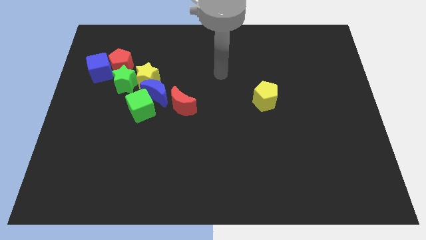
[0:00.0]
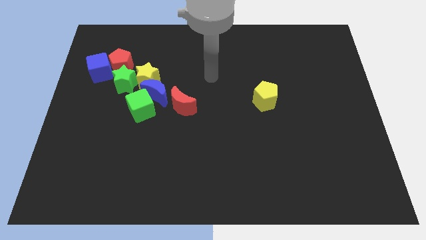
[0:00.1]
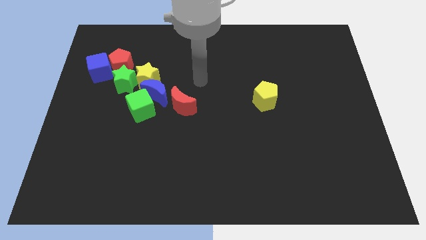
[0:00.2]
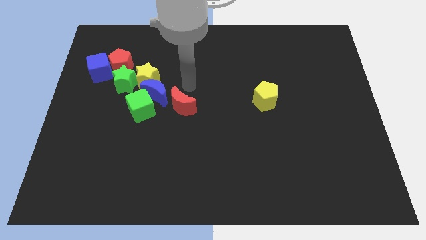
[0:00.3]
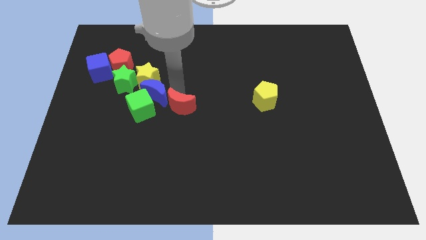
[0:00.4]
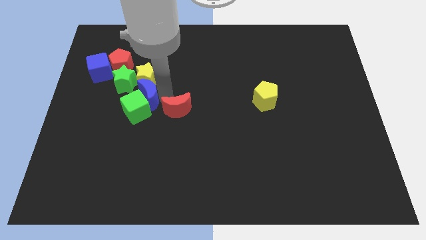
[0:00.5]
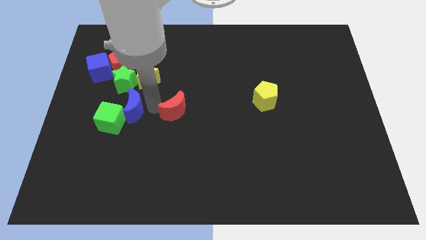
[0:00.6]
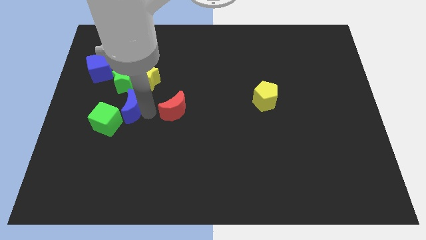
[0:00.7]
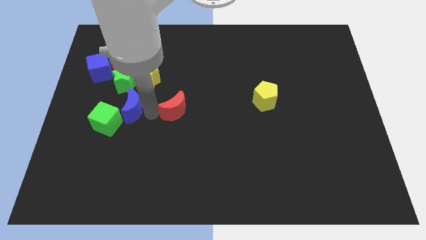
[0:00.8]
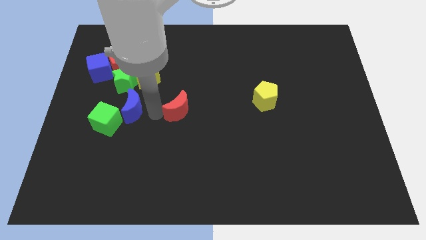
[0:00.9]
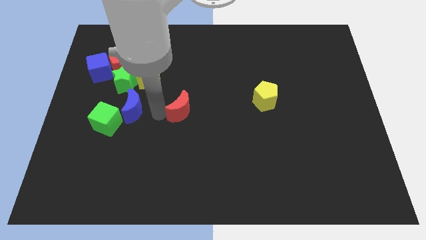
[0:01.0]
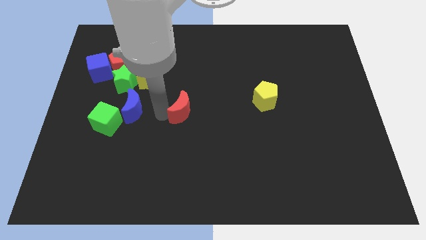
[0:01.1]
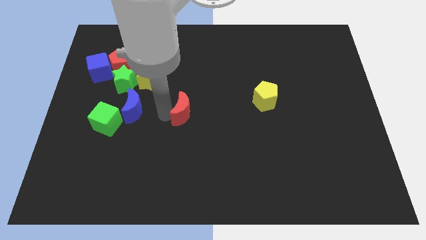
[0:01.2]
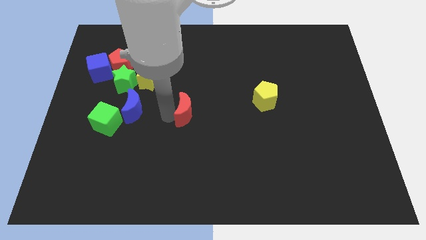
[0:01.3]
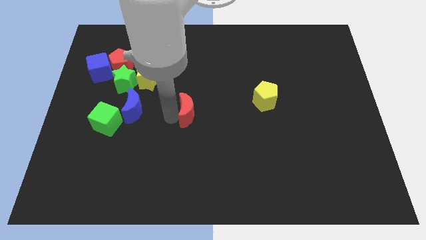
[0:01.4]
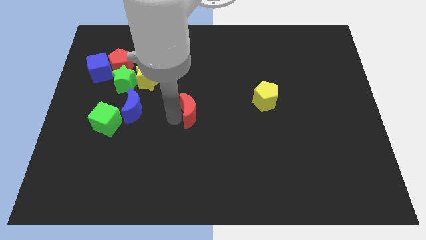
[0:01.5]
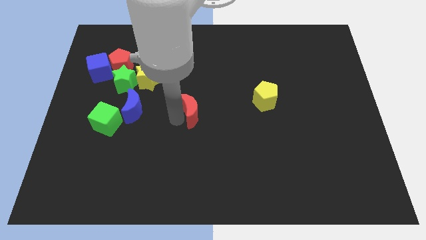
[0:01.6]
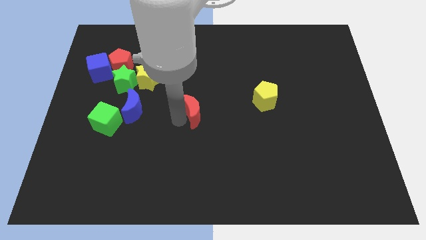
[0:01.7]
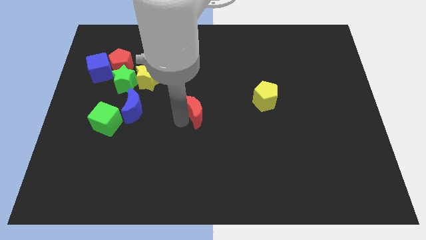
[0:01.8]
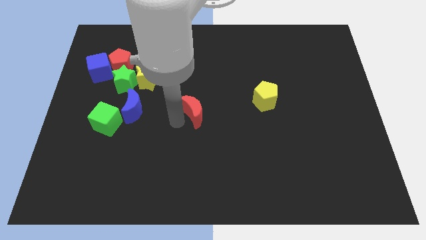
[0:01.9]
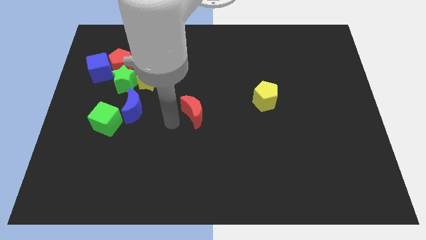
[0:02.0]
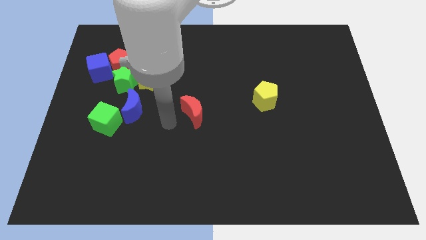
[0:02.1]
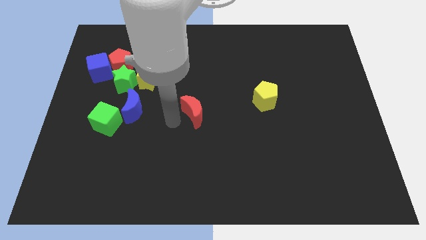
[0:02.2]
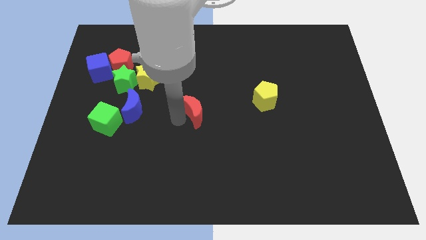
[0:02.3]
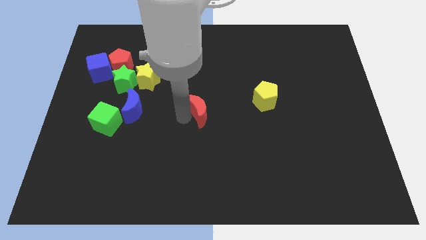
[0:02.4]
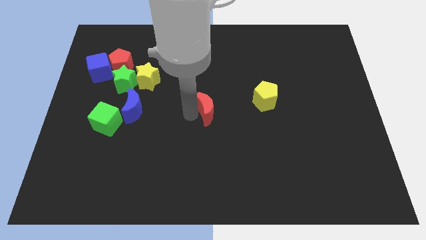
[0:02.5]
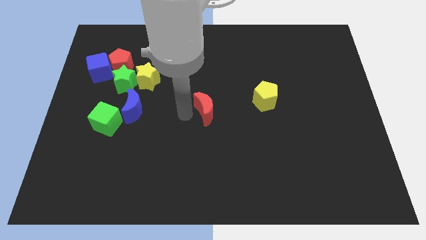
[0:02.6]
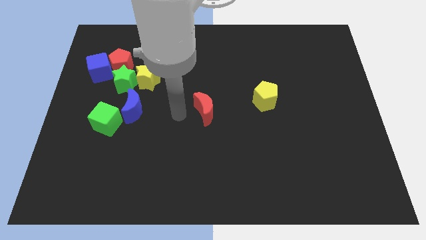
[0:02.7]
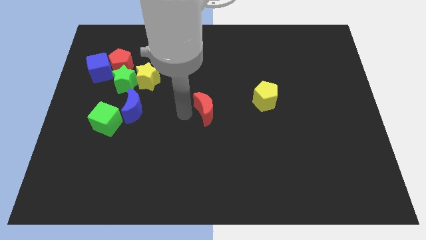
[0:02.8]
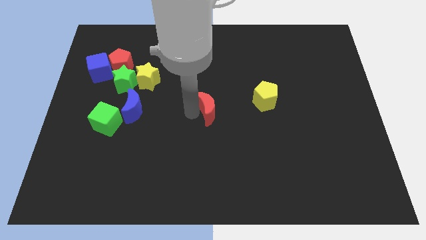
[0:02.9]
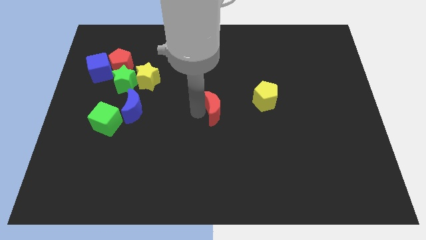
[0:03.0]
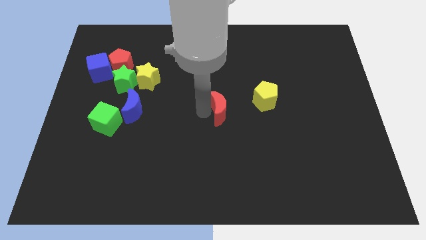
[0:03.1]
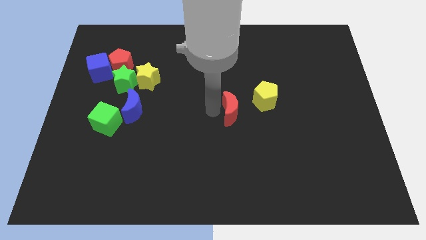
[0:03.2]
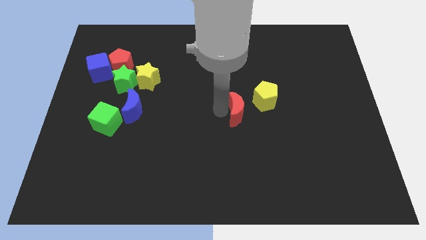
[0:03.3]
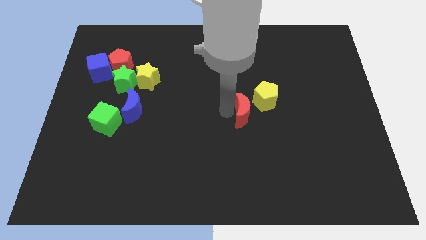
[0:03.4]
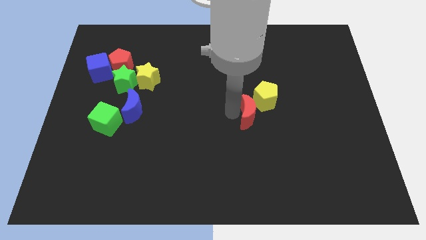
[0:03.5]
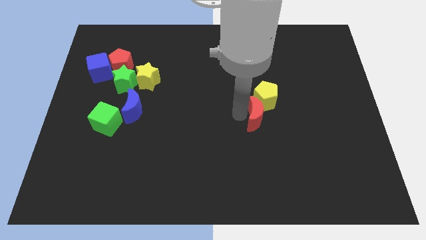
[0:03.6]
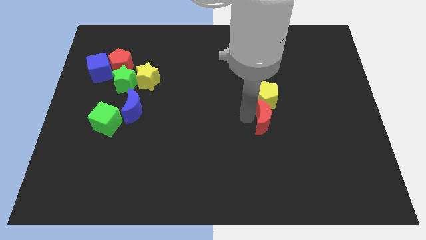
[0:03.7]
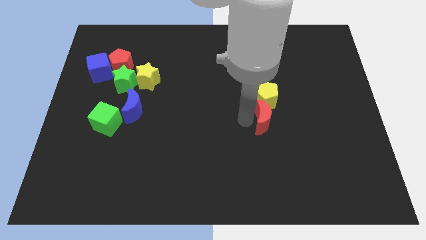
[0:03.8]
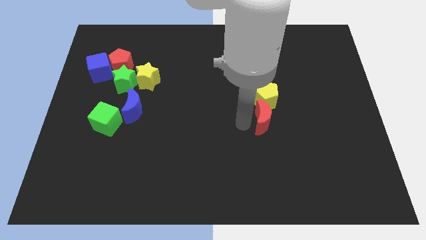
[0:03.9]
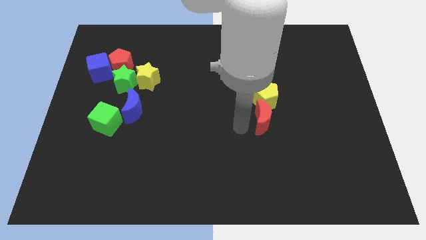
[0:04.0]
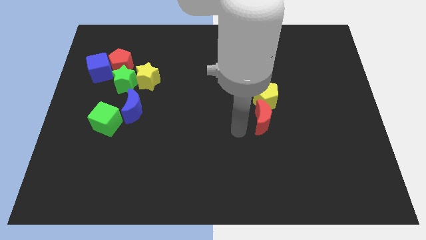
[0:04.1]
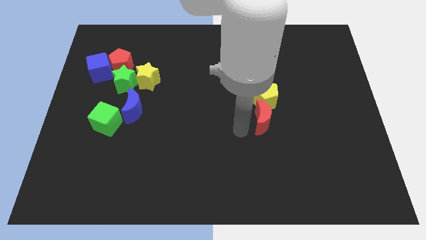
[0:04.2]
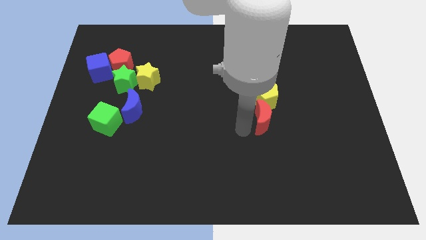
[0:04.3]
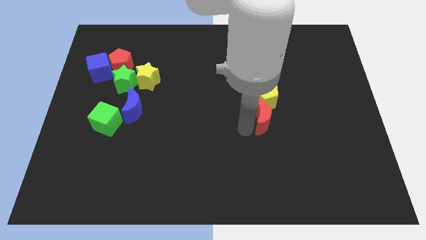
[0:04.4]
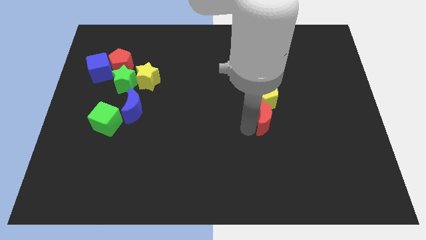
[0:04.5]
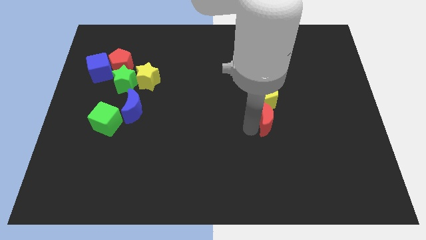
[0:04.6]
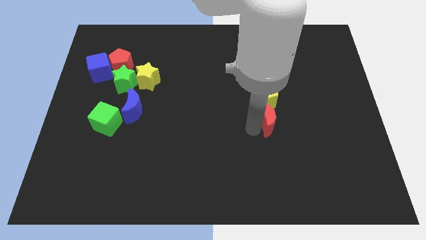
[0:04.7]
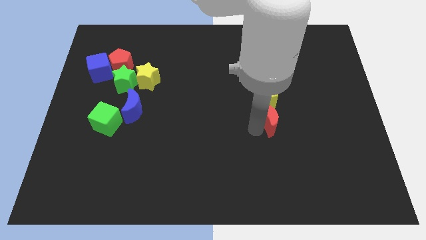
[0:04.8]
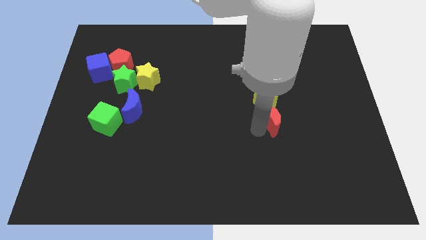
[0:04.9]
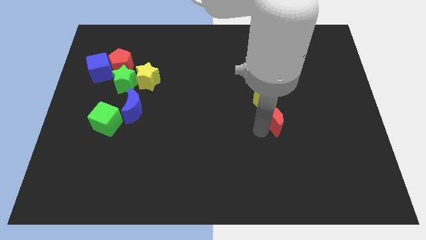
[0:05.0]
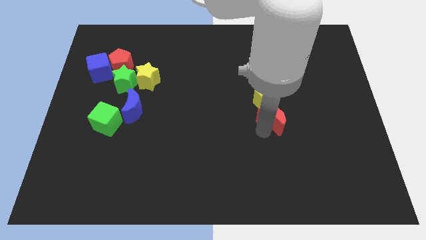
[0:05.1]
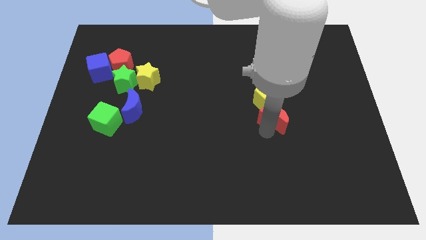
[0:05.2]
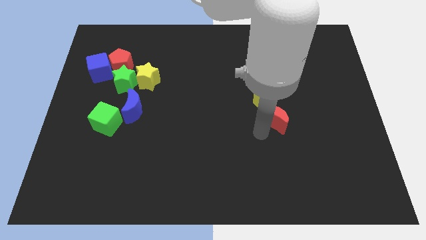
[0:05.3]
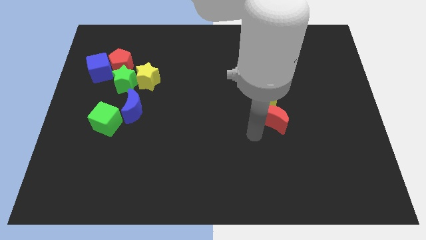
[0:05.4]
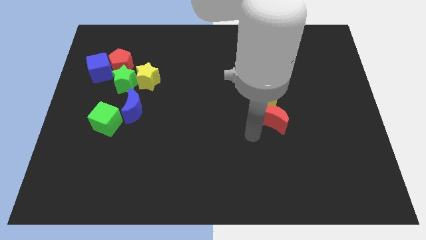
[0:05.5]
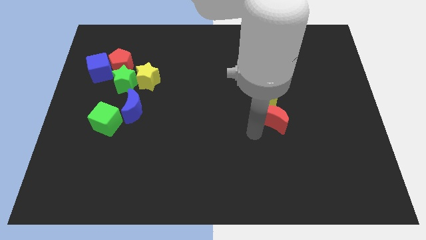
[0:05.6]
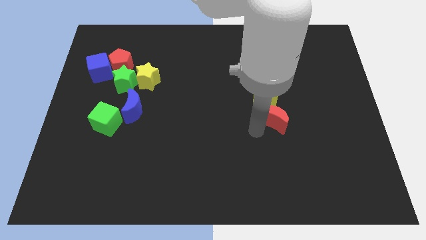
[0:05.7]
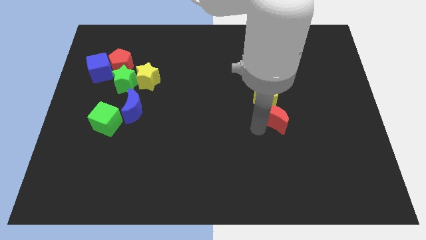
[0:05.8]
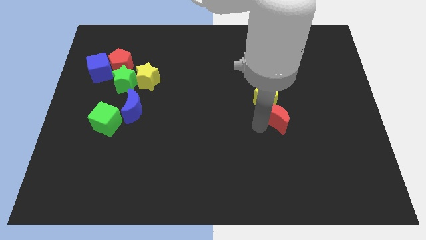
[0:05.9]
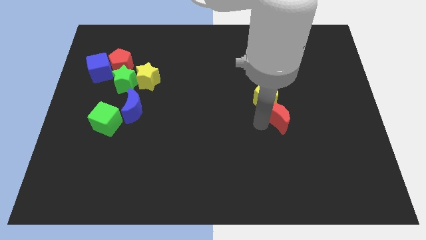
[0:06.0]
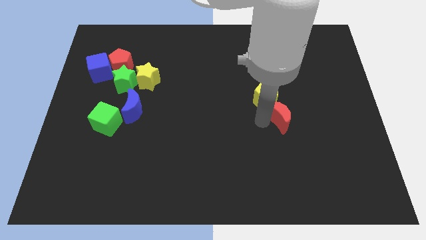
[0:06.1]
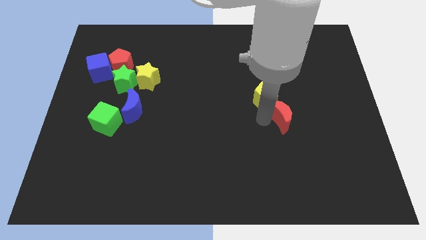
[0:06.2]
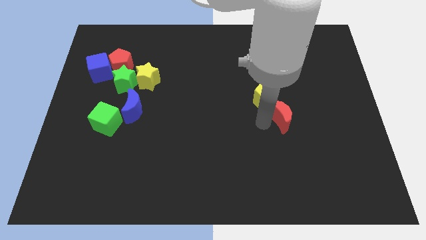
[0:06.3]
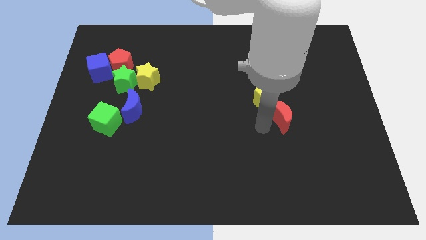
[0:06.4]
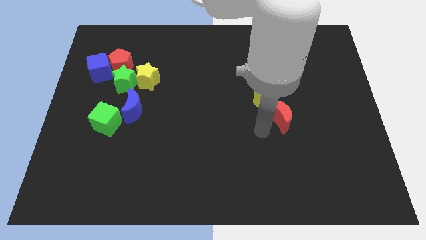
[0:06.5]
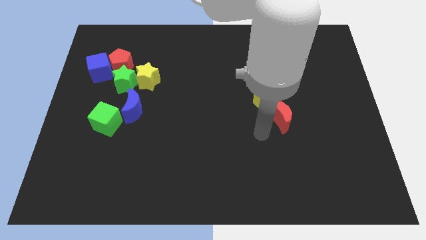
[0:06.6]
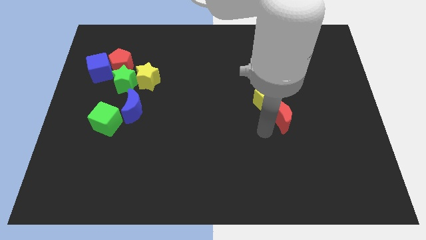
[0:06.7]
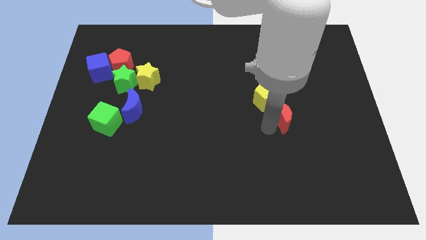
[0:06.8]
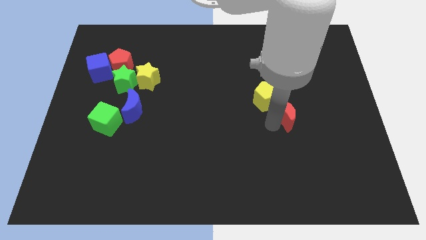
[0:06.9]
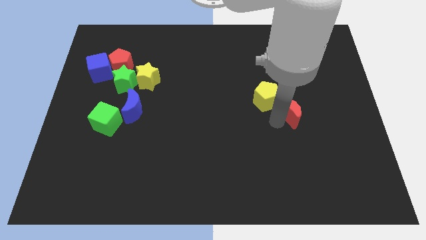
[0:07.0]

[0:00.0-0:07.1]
push the red moon just right of the yellow pentagon

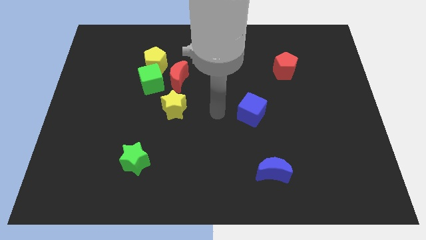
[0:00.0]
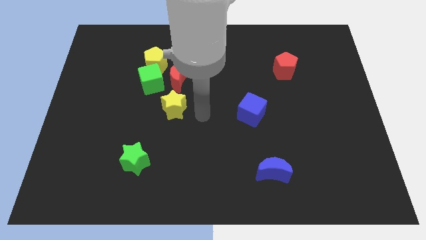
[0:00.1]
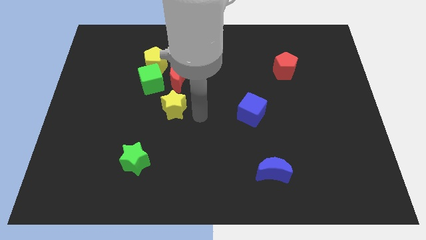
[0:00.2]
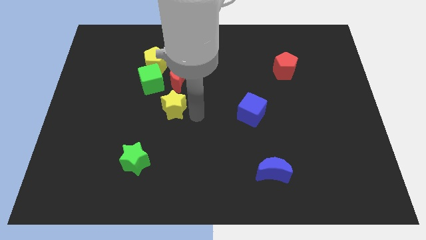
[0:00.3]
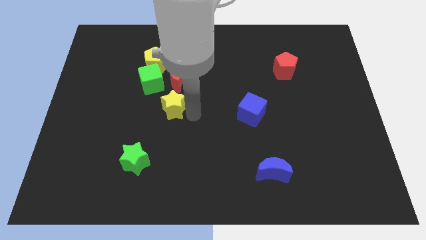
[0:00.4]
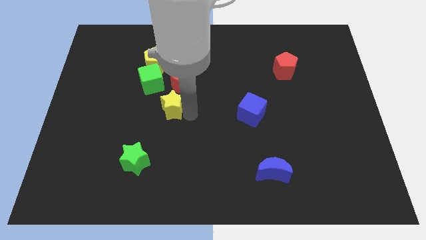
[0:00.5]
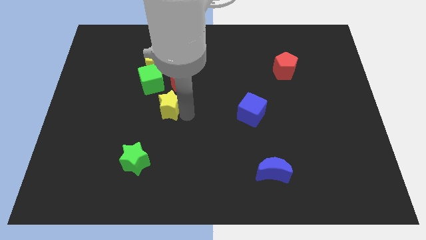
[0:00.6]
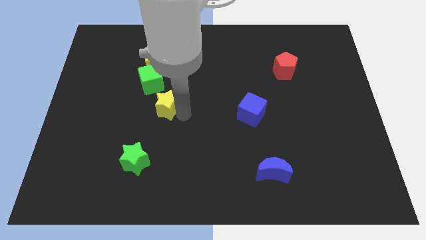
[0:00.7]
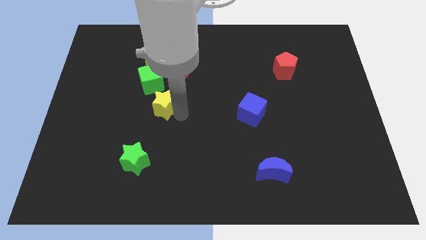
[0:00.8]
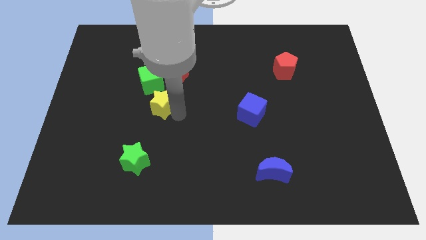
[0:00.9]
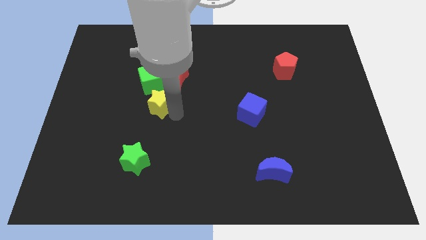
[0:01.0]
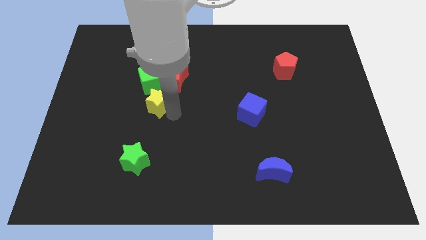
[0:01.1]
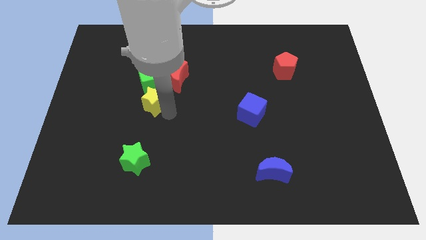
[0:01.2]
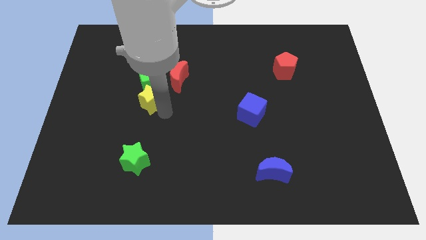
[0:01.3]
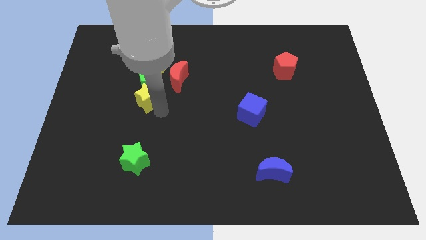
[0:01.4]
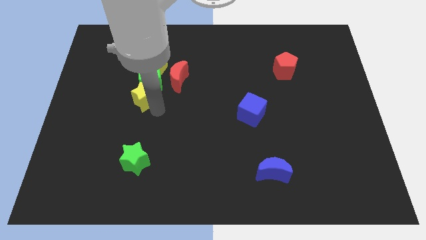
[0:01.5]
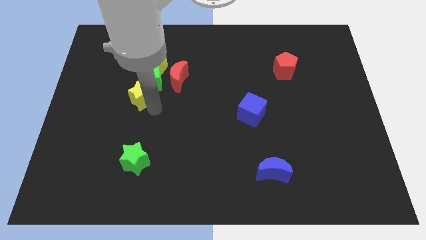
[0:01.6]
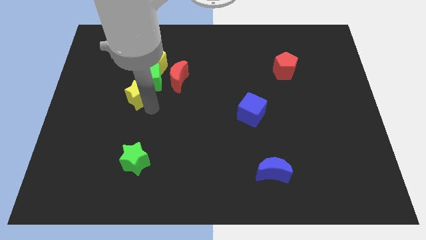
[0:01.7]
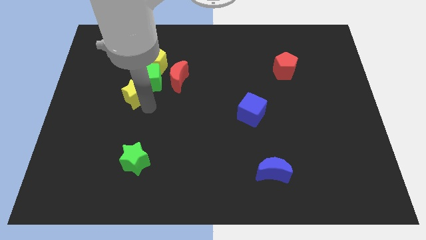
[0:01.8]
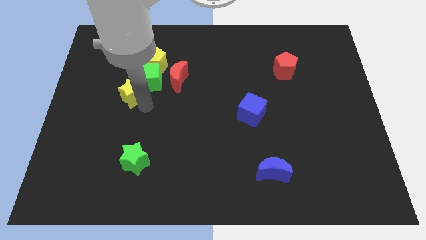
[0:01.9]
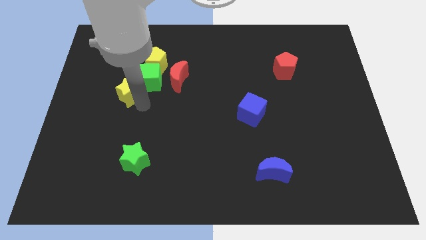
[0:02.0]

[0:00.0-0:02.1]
slide the yellow star to the left of the red moon
